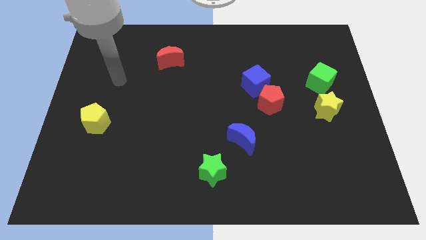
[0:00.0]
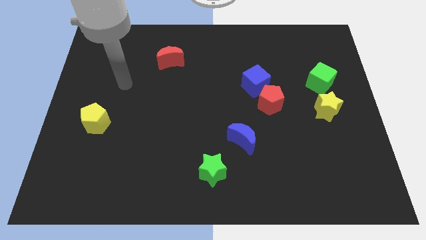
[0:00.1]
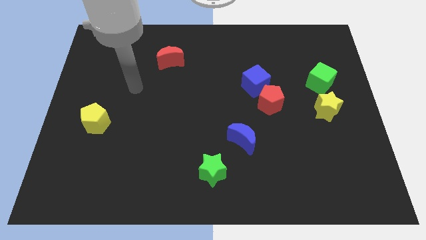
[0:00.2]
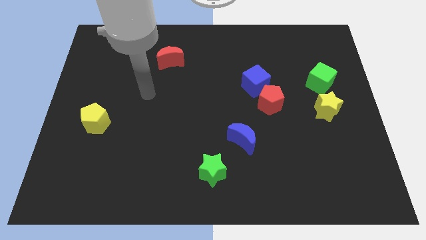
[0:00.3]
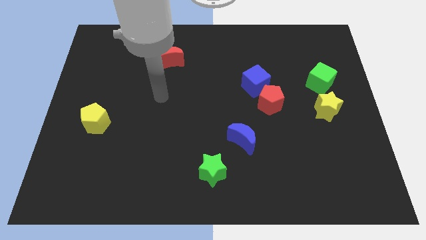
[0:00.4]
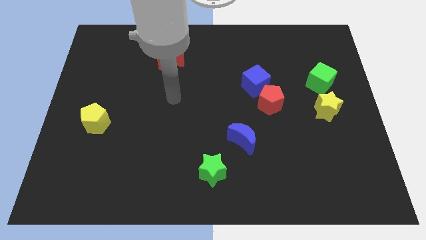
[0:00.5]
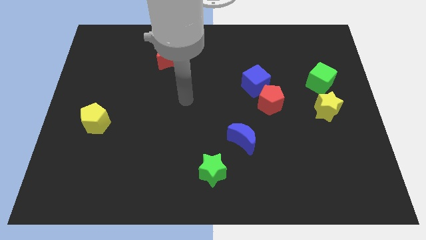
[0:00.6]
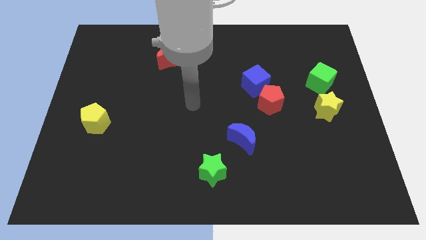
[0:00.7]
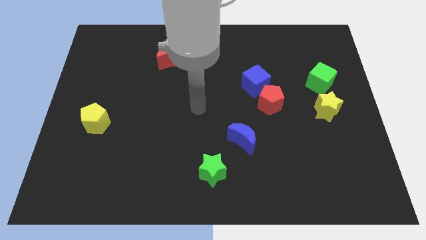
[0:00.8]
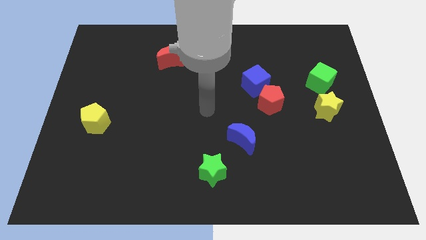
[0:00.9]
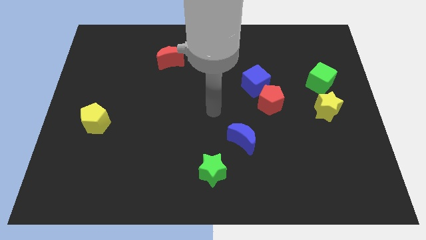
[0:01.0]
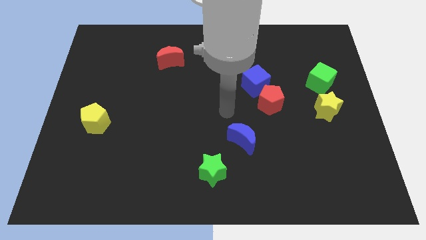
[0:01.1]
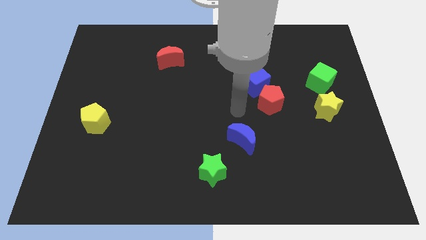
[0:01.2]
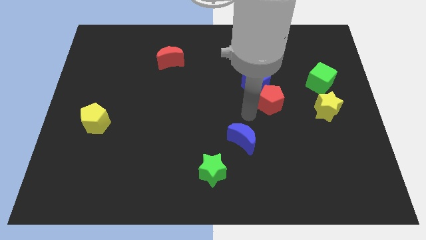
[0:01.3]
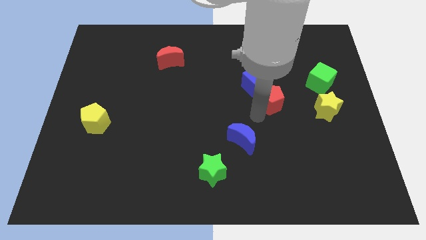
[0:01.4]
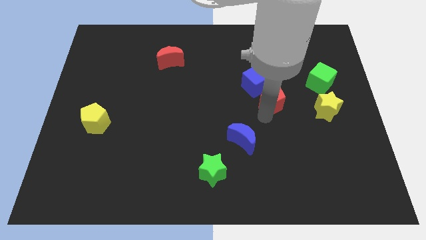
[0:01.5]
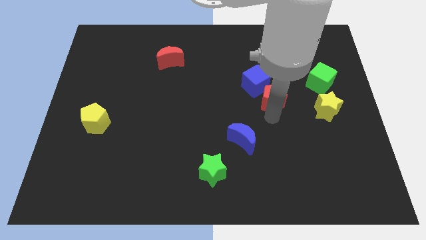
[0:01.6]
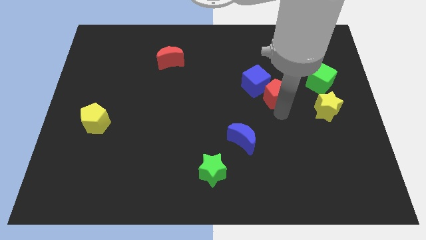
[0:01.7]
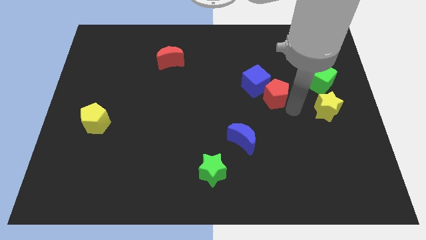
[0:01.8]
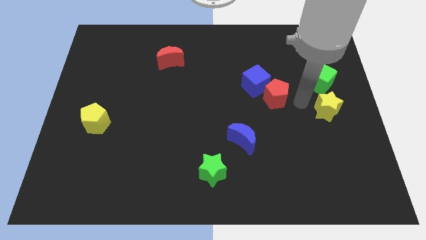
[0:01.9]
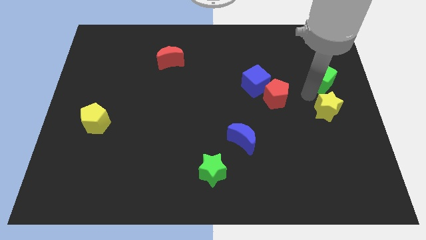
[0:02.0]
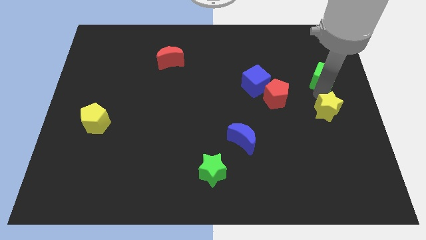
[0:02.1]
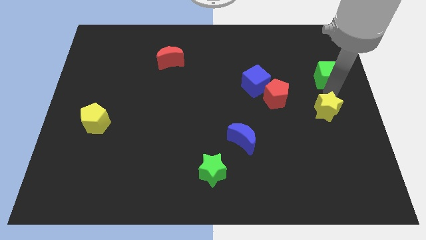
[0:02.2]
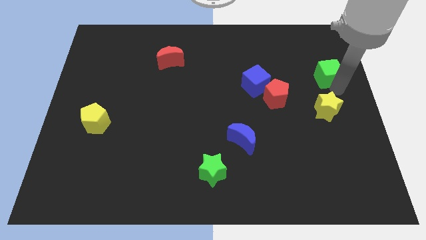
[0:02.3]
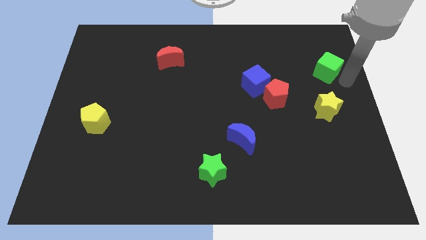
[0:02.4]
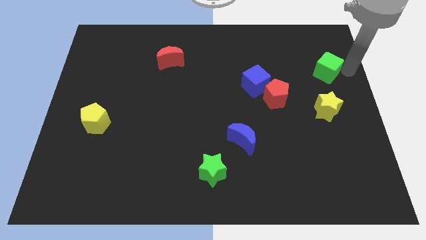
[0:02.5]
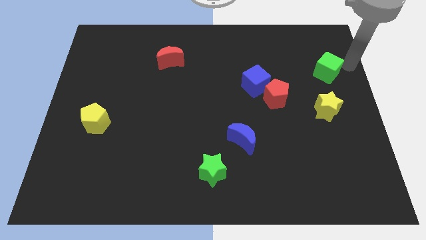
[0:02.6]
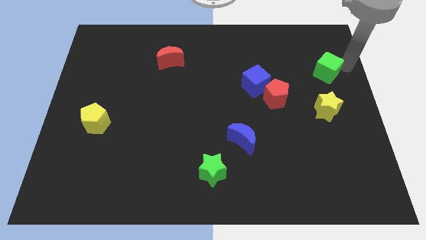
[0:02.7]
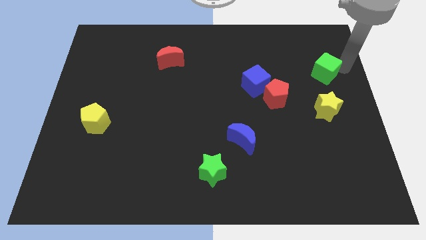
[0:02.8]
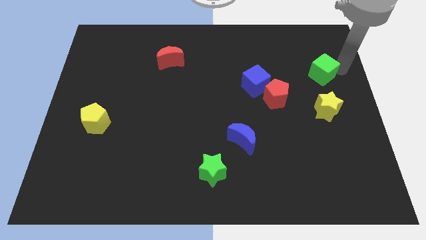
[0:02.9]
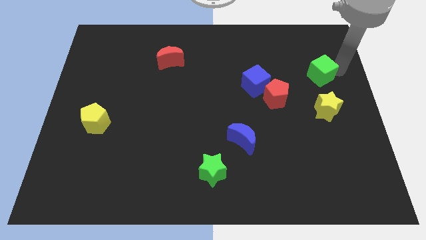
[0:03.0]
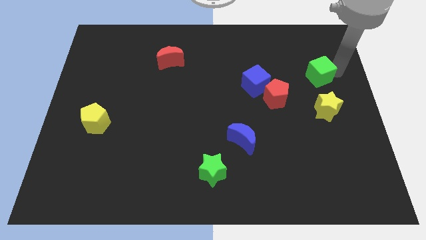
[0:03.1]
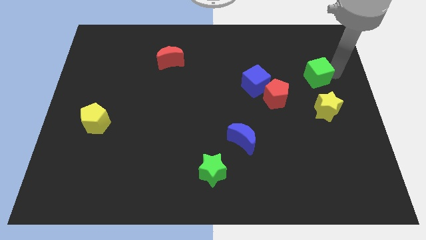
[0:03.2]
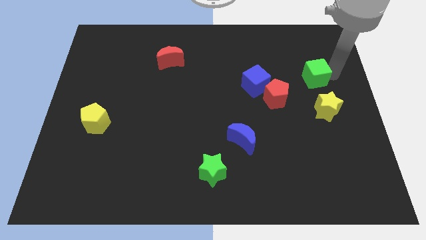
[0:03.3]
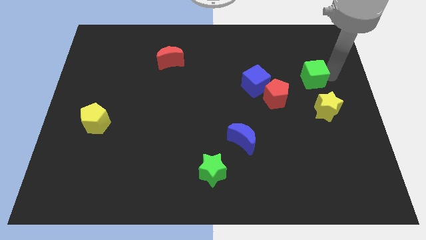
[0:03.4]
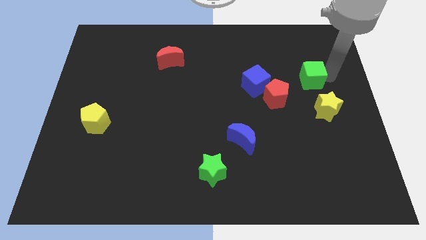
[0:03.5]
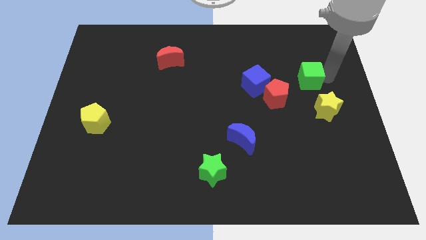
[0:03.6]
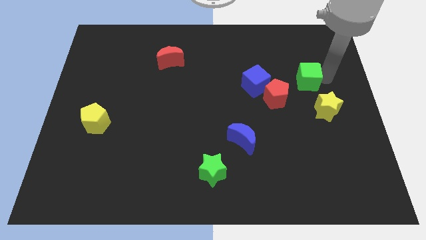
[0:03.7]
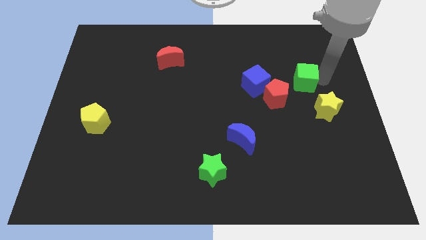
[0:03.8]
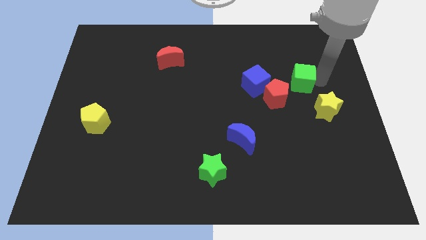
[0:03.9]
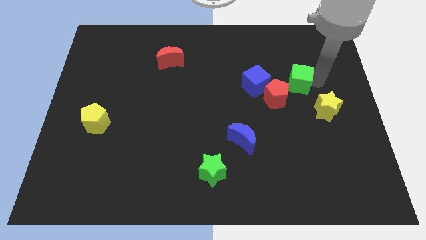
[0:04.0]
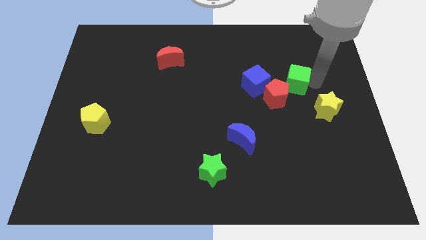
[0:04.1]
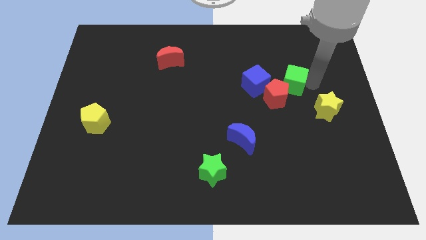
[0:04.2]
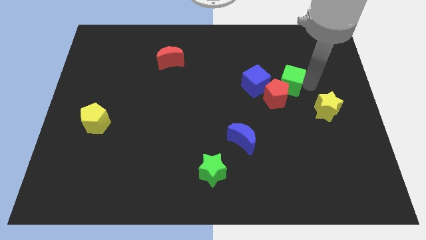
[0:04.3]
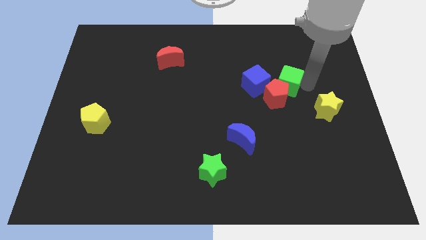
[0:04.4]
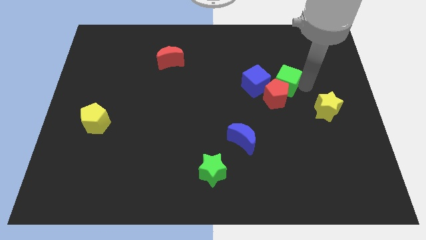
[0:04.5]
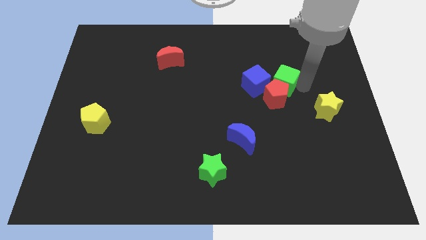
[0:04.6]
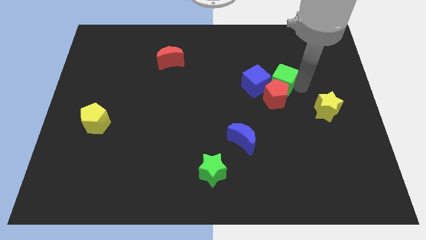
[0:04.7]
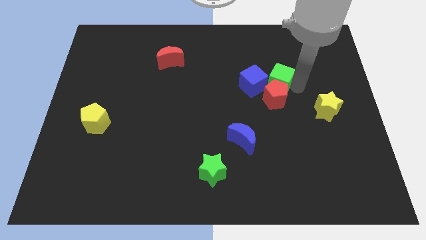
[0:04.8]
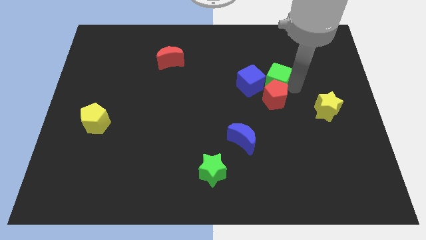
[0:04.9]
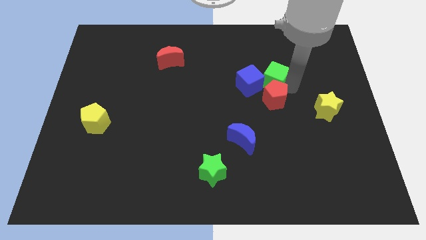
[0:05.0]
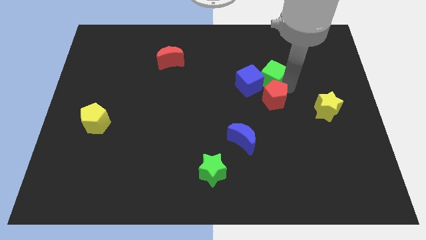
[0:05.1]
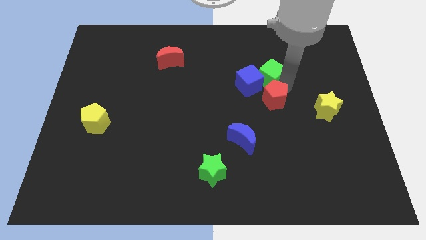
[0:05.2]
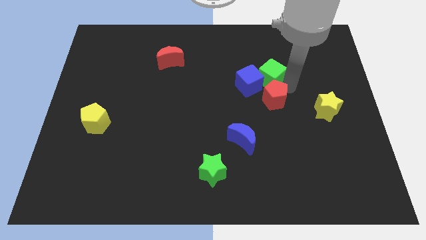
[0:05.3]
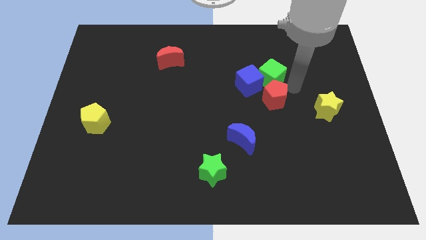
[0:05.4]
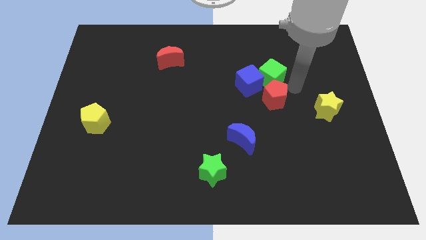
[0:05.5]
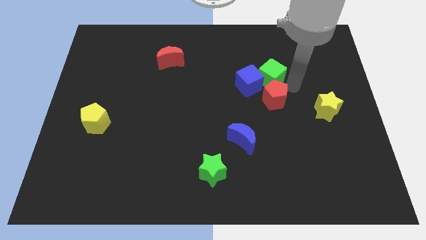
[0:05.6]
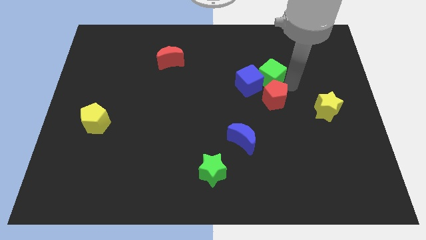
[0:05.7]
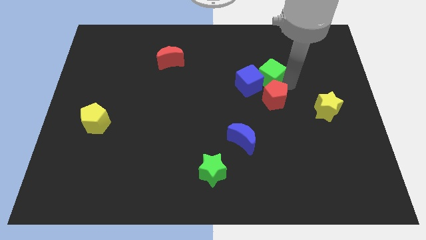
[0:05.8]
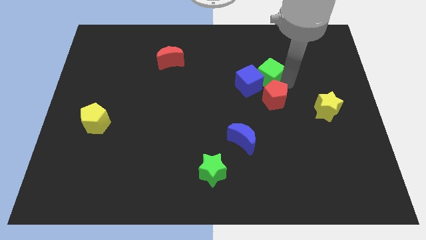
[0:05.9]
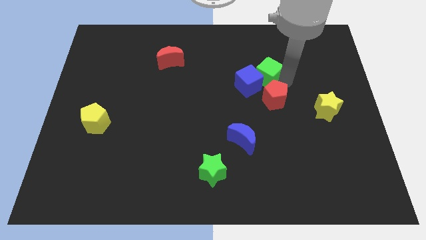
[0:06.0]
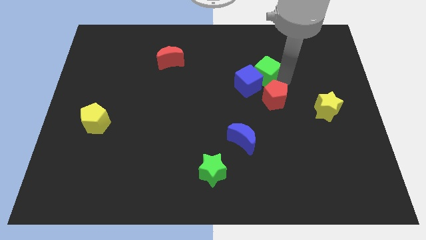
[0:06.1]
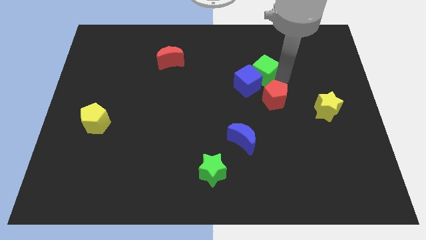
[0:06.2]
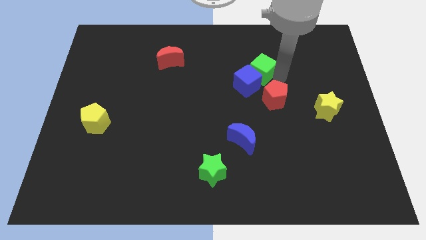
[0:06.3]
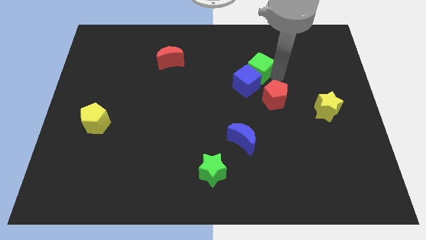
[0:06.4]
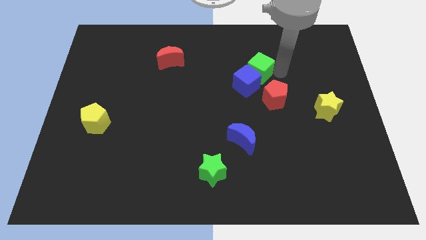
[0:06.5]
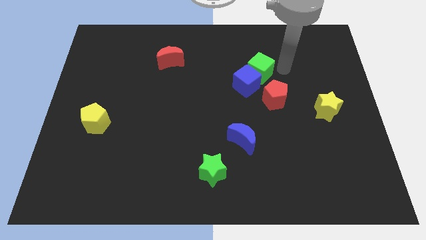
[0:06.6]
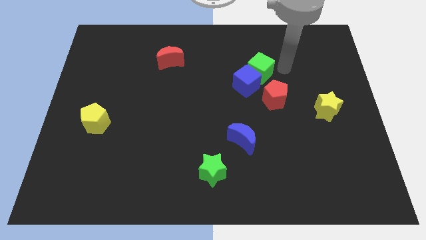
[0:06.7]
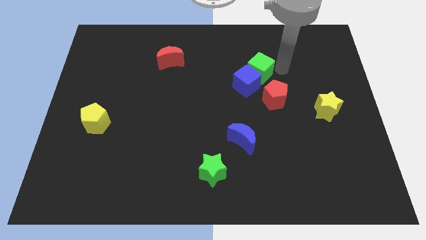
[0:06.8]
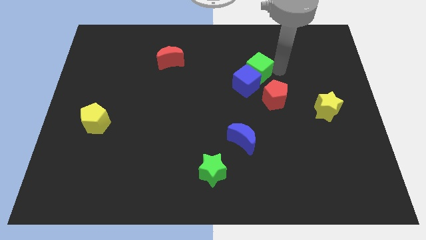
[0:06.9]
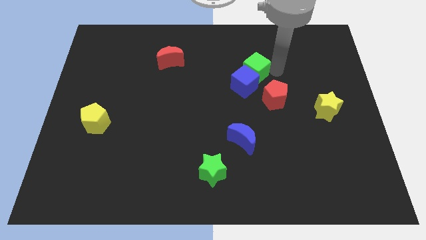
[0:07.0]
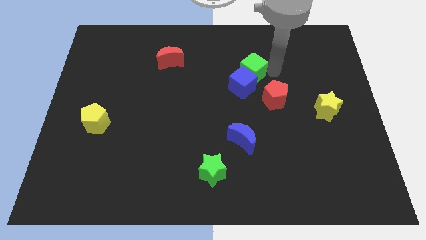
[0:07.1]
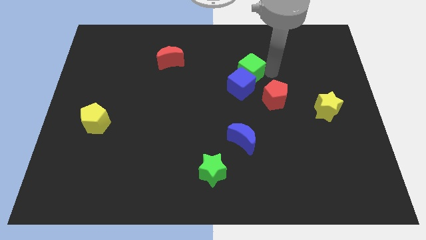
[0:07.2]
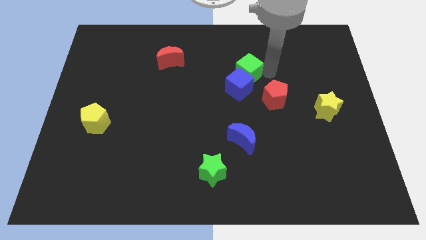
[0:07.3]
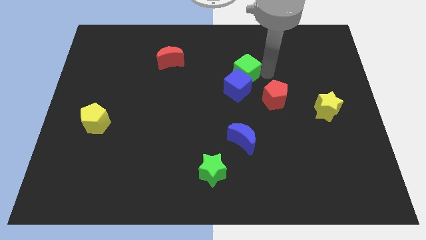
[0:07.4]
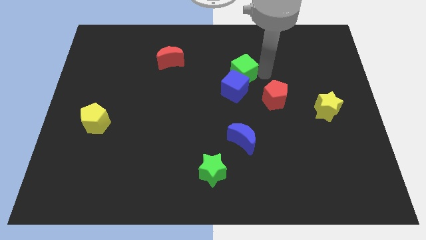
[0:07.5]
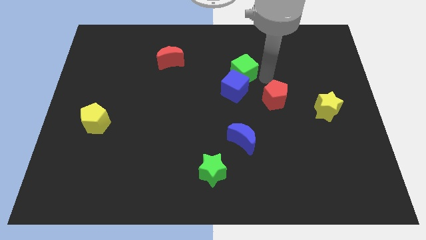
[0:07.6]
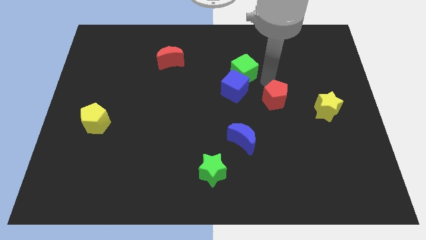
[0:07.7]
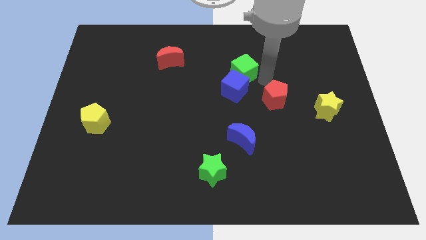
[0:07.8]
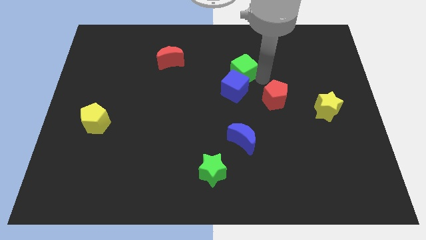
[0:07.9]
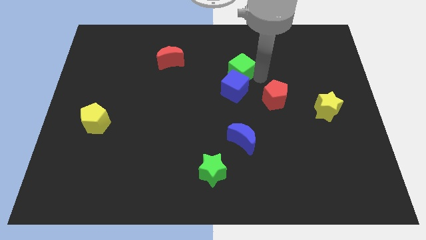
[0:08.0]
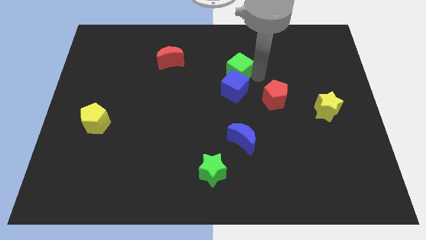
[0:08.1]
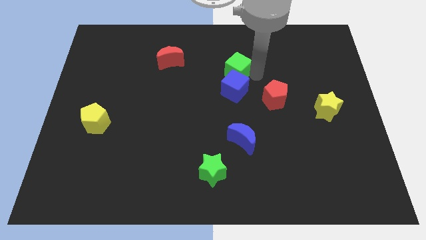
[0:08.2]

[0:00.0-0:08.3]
push the green cube left
